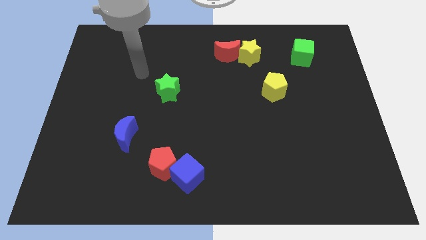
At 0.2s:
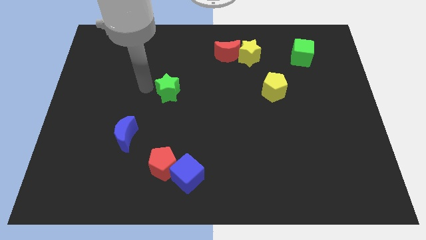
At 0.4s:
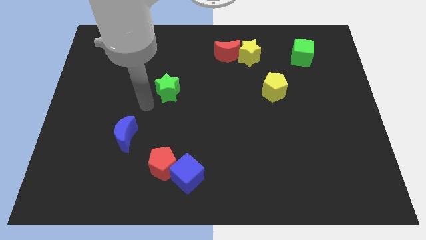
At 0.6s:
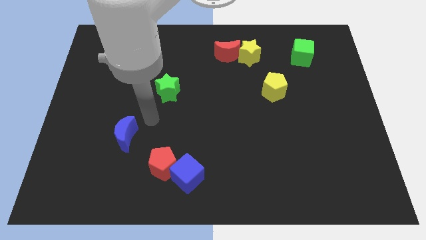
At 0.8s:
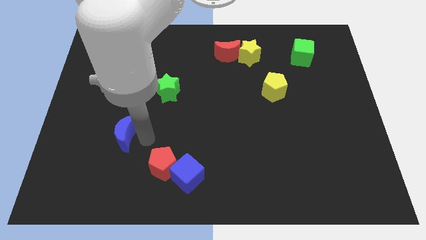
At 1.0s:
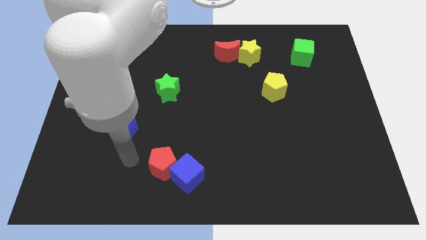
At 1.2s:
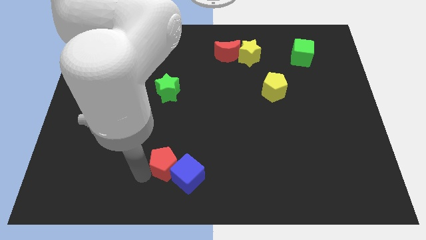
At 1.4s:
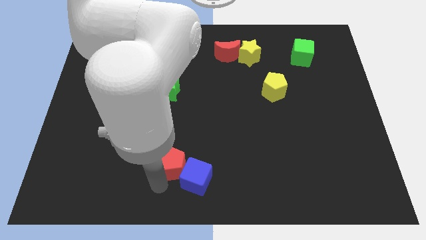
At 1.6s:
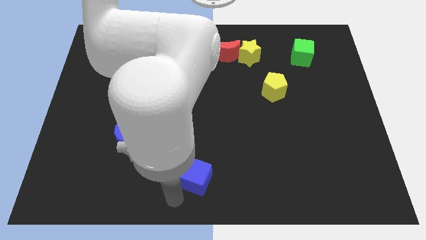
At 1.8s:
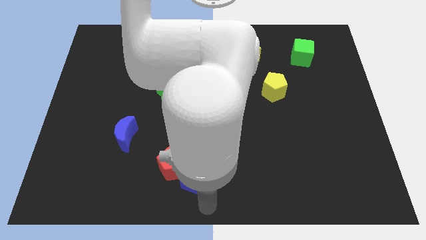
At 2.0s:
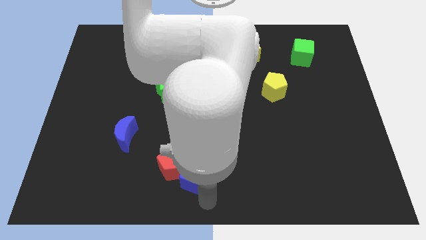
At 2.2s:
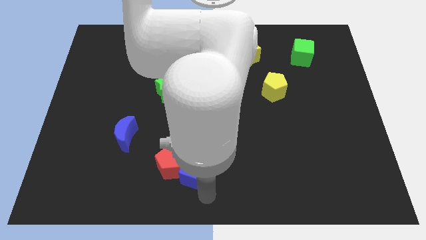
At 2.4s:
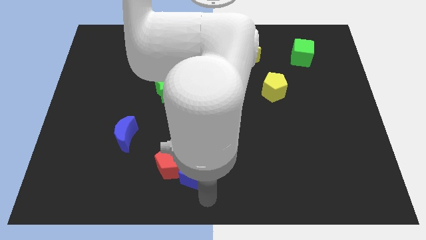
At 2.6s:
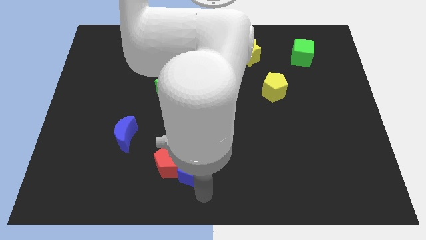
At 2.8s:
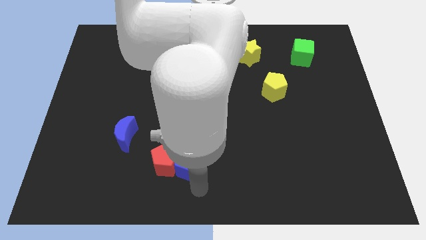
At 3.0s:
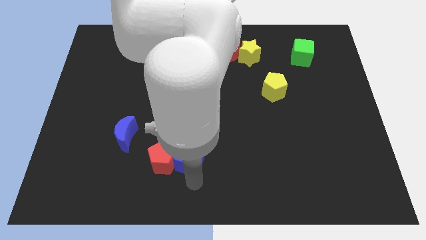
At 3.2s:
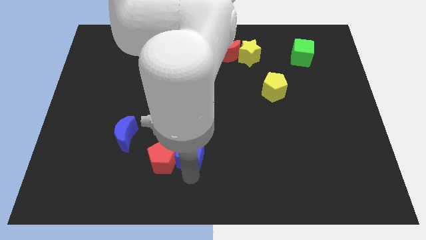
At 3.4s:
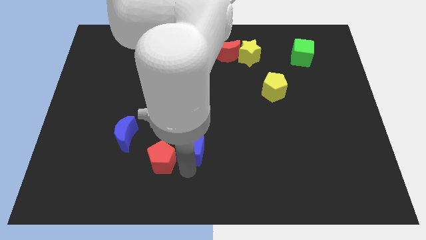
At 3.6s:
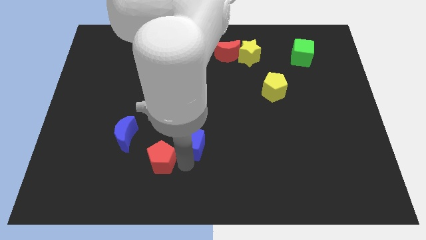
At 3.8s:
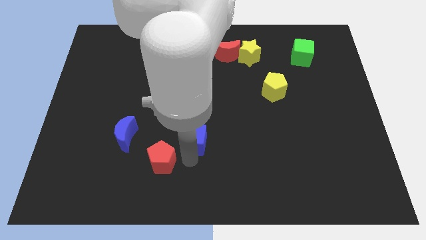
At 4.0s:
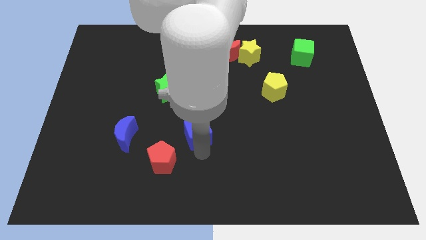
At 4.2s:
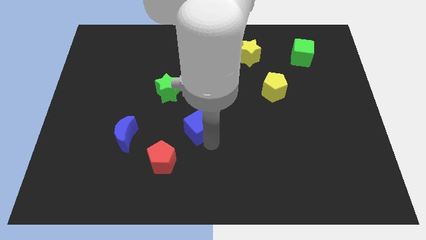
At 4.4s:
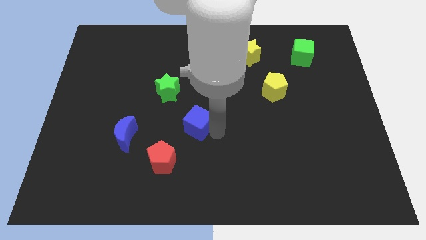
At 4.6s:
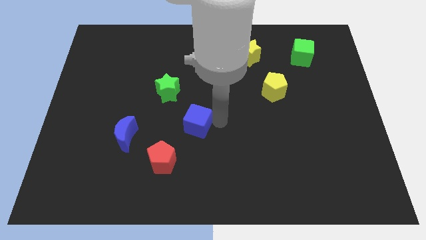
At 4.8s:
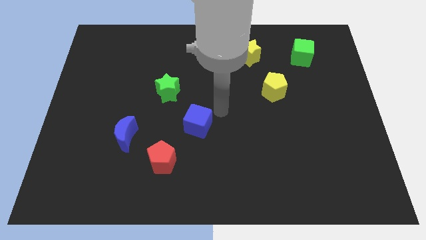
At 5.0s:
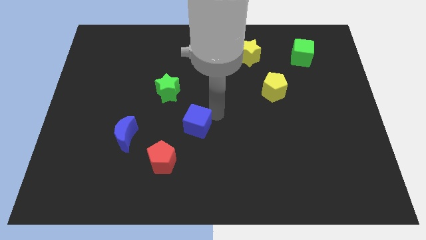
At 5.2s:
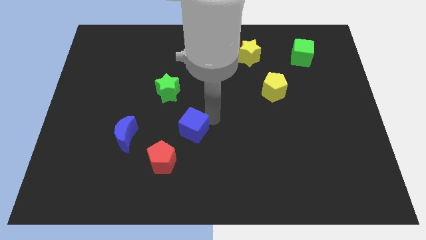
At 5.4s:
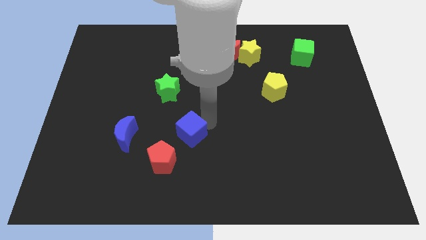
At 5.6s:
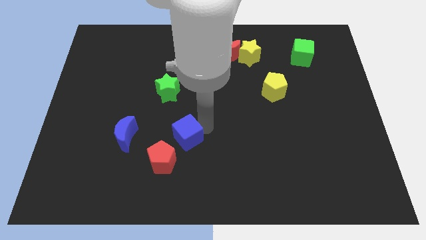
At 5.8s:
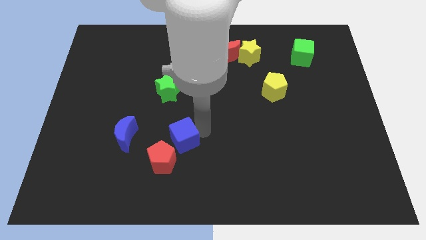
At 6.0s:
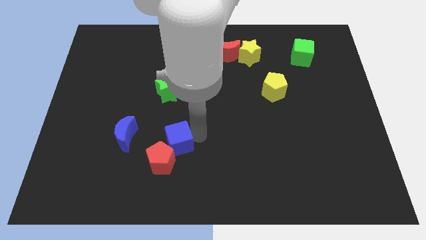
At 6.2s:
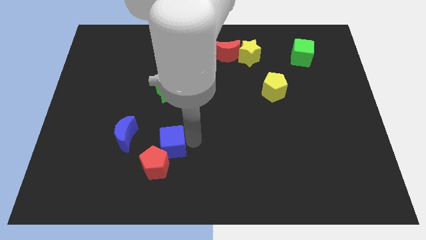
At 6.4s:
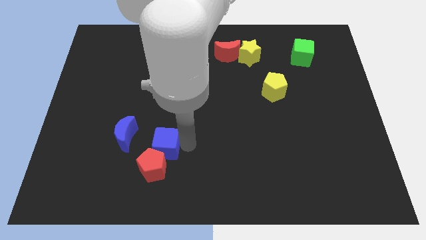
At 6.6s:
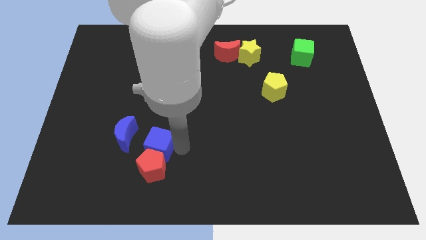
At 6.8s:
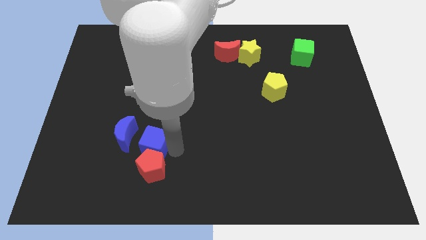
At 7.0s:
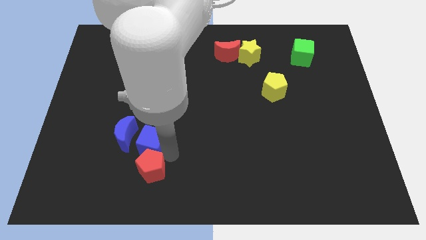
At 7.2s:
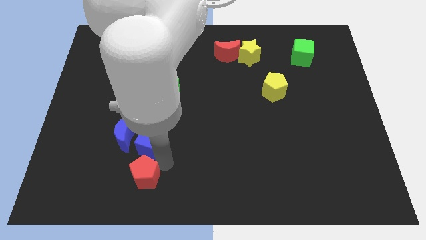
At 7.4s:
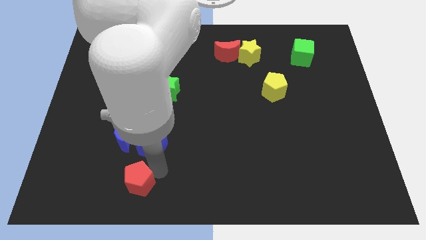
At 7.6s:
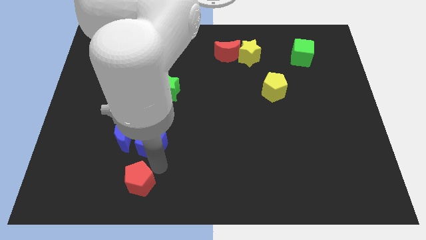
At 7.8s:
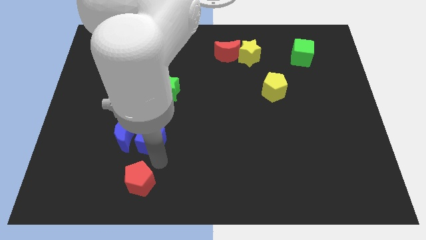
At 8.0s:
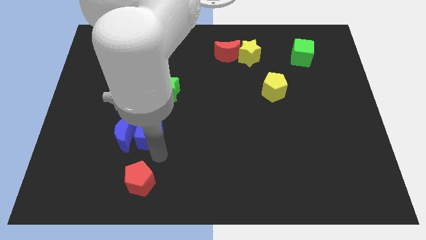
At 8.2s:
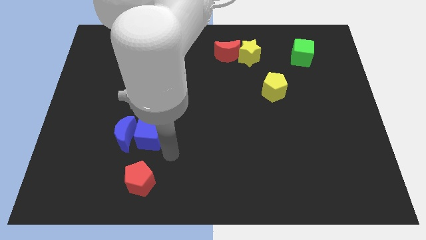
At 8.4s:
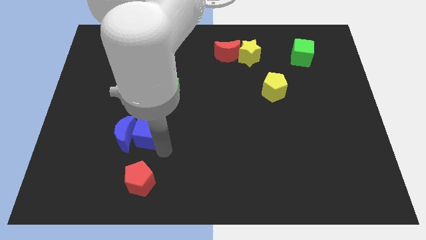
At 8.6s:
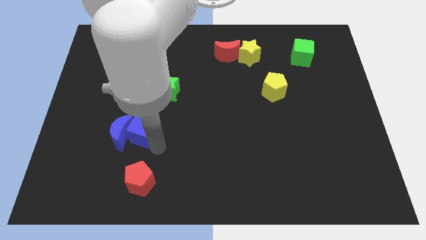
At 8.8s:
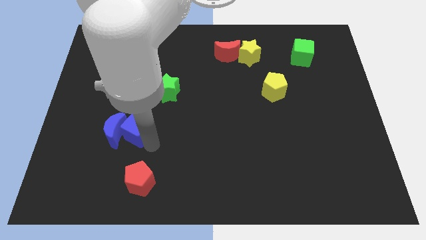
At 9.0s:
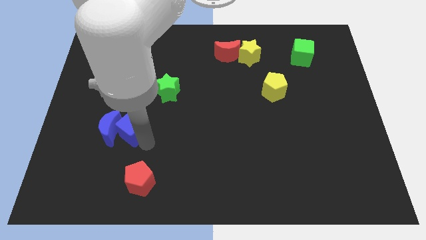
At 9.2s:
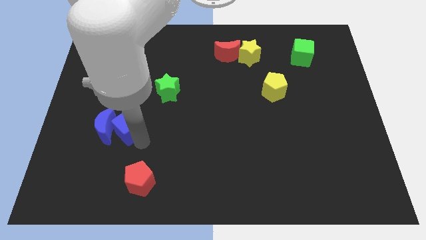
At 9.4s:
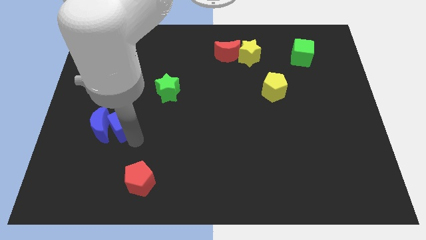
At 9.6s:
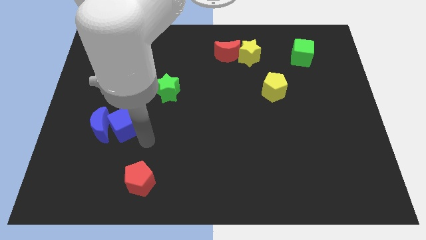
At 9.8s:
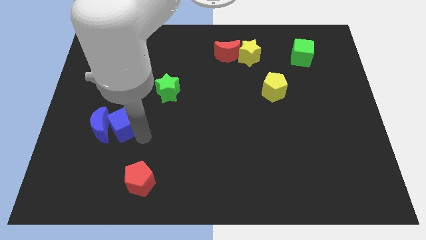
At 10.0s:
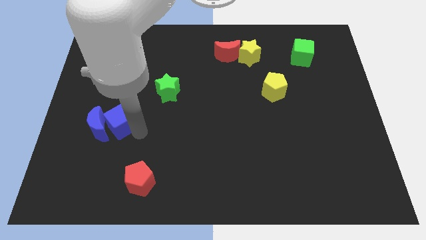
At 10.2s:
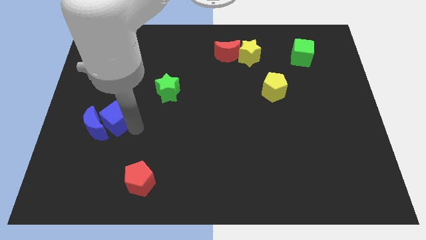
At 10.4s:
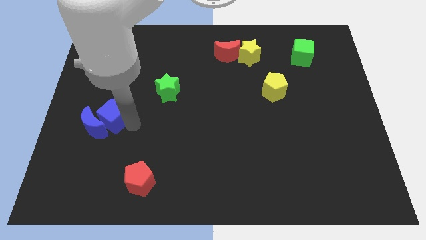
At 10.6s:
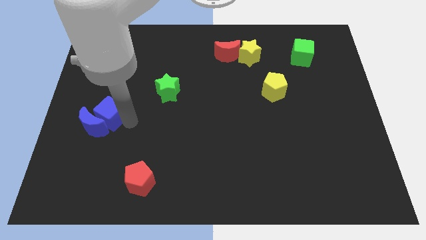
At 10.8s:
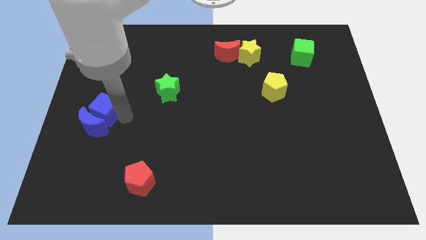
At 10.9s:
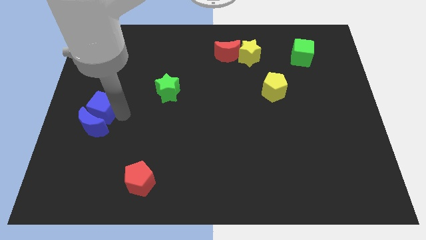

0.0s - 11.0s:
slide the blue cube to the left side of the board

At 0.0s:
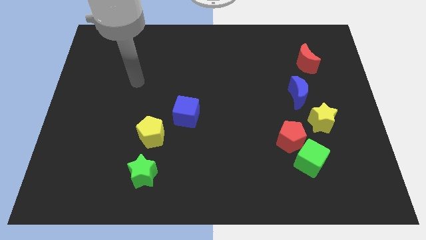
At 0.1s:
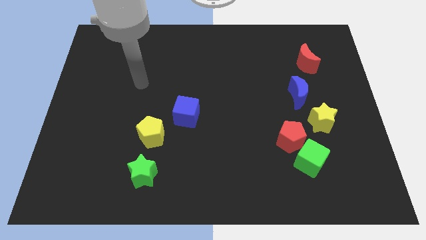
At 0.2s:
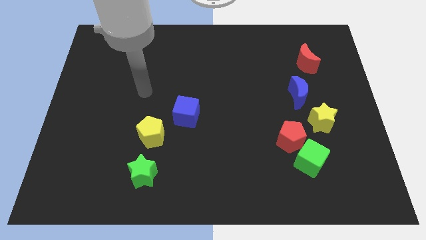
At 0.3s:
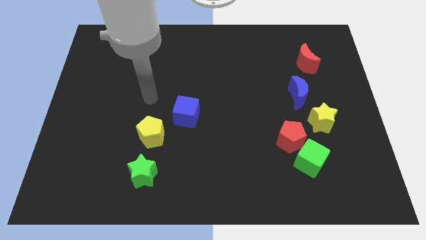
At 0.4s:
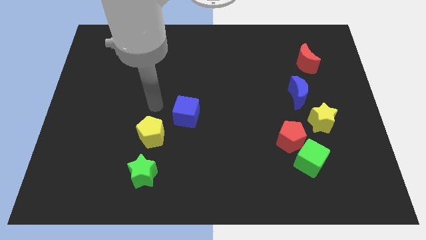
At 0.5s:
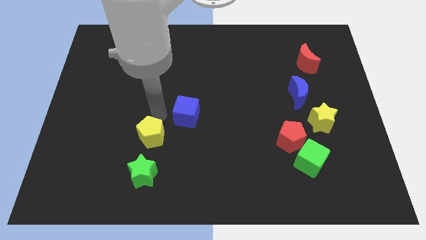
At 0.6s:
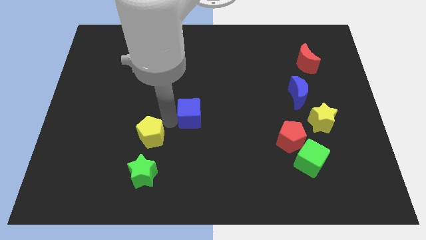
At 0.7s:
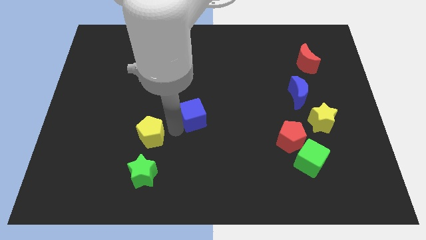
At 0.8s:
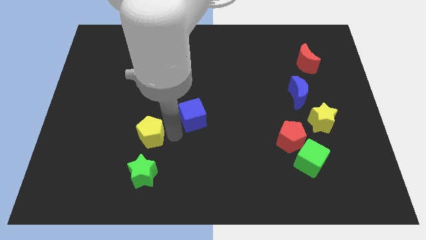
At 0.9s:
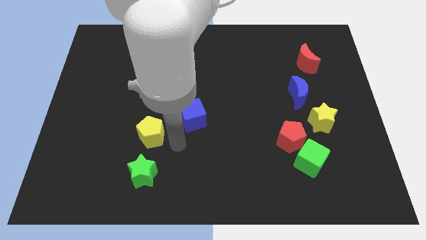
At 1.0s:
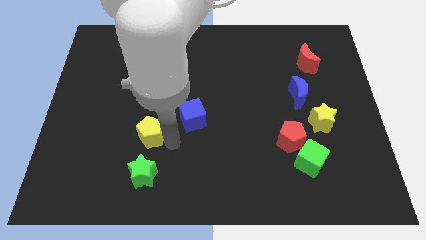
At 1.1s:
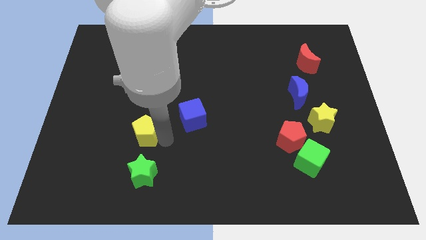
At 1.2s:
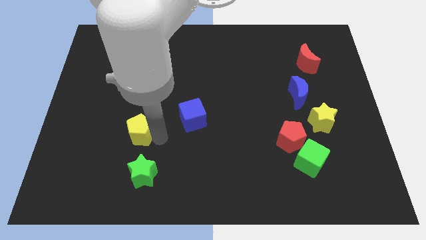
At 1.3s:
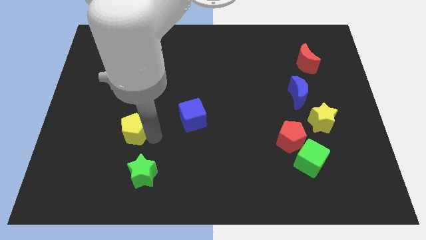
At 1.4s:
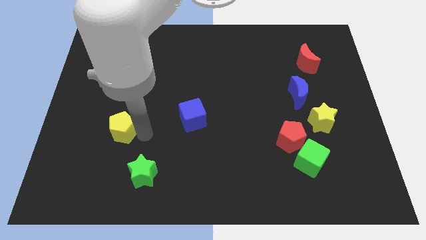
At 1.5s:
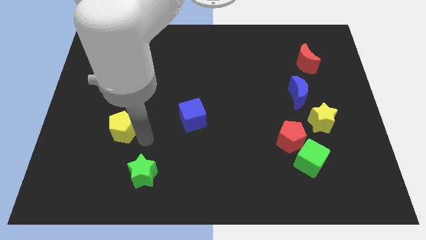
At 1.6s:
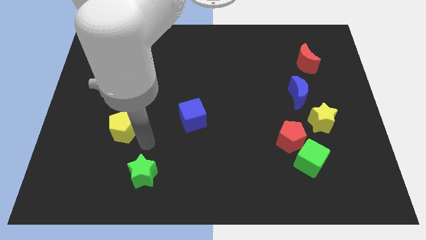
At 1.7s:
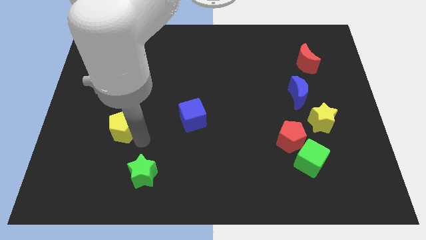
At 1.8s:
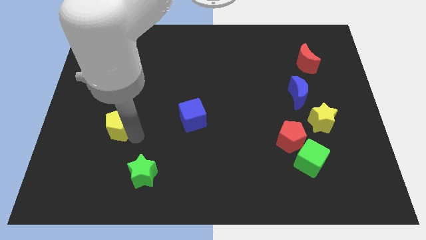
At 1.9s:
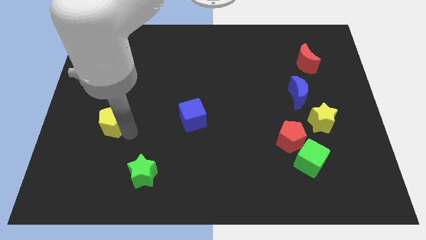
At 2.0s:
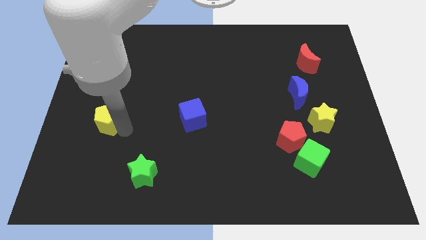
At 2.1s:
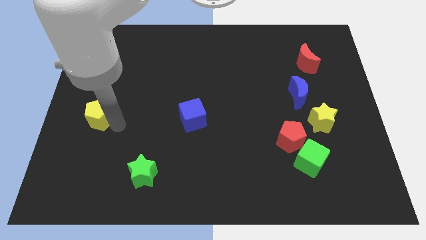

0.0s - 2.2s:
slide the yellow pentagon to the center left
